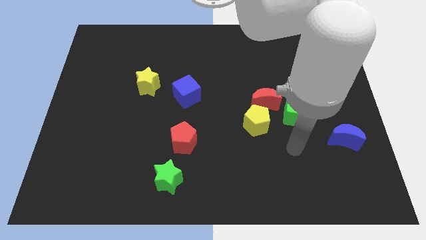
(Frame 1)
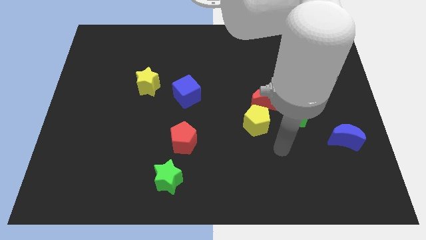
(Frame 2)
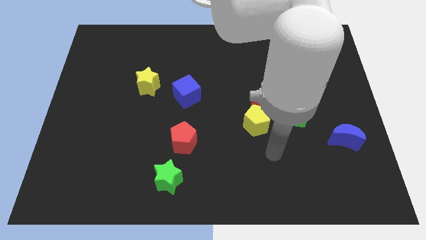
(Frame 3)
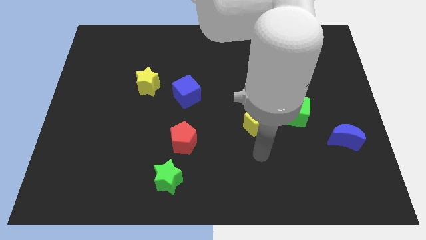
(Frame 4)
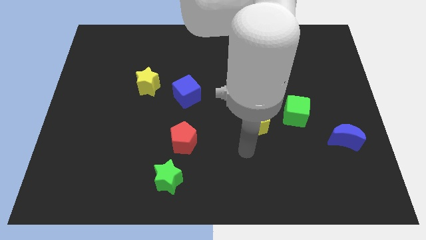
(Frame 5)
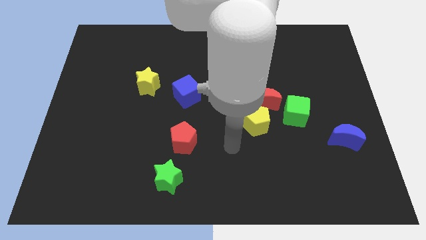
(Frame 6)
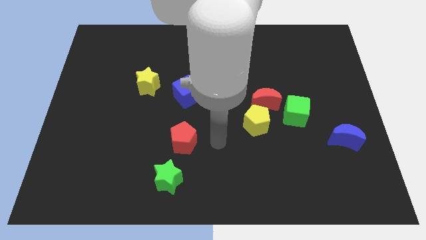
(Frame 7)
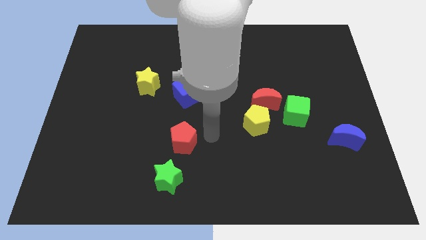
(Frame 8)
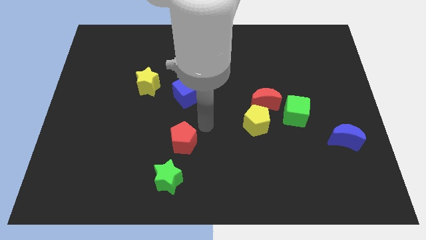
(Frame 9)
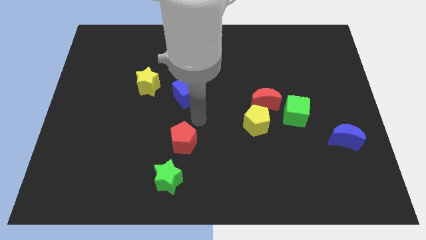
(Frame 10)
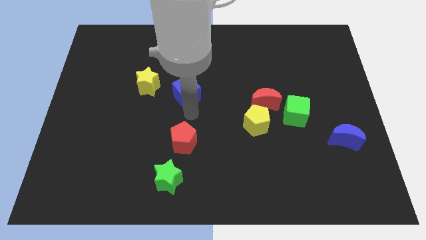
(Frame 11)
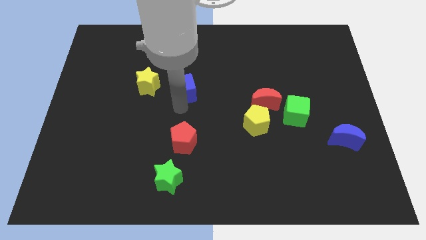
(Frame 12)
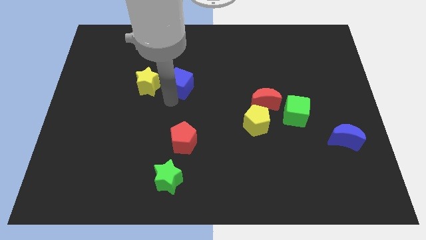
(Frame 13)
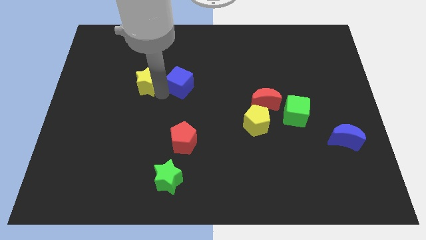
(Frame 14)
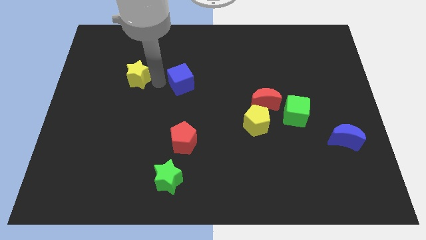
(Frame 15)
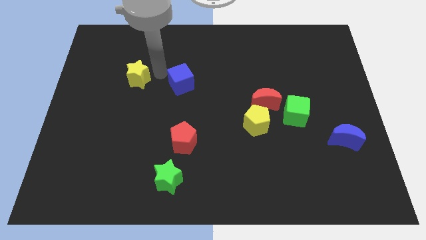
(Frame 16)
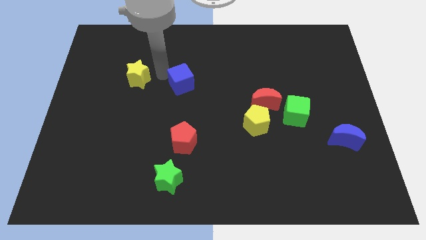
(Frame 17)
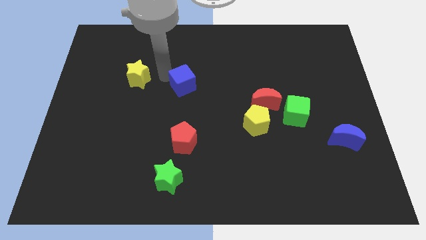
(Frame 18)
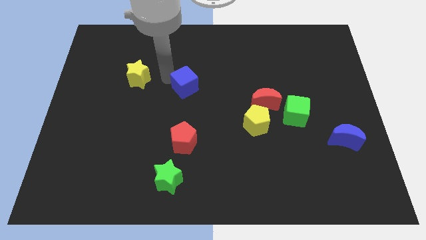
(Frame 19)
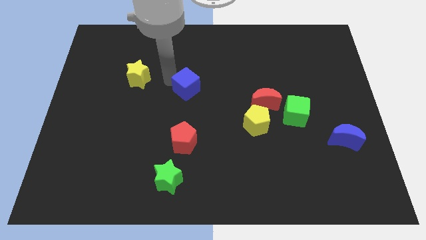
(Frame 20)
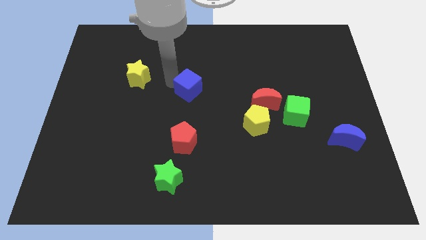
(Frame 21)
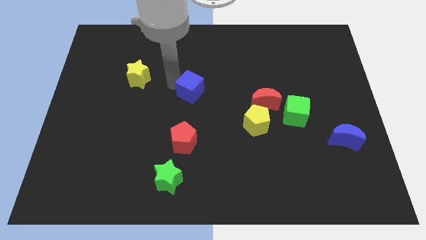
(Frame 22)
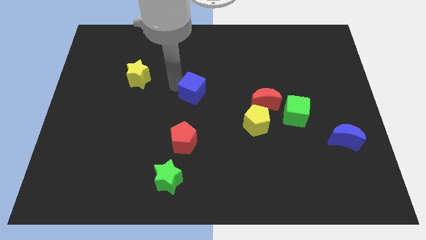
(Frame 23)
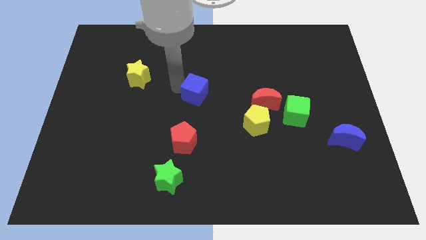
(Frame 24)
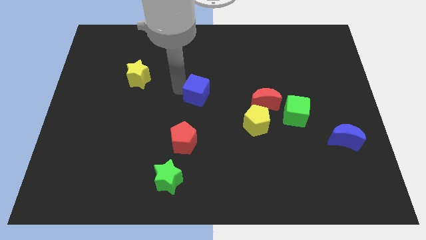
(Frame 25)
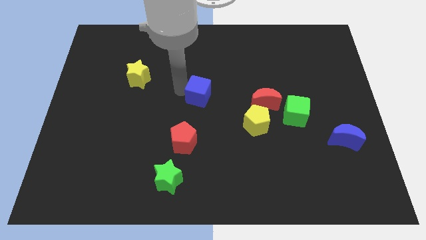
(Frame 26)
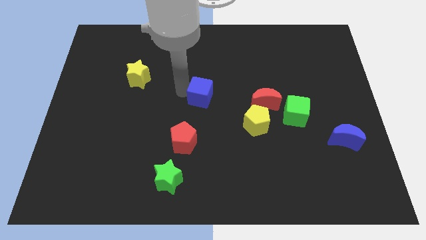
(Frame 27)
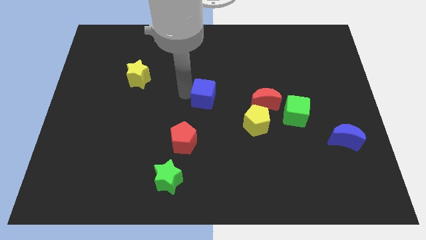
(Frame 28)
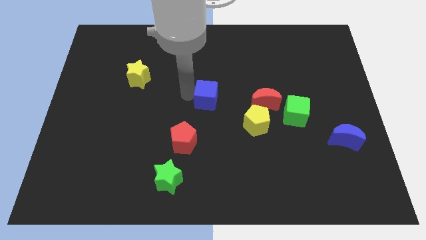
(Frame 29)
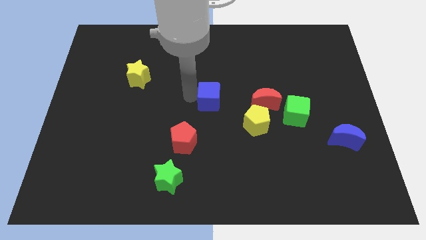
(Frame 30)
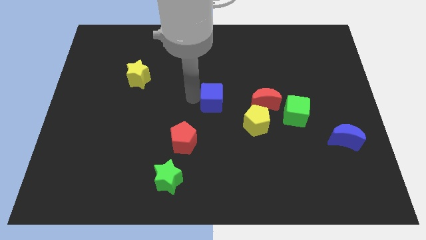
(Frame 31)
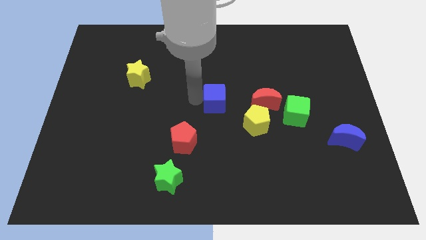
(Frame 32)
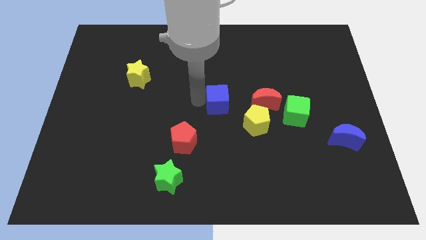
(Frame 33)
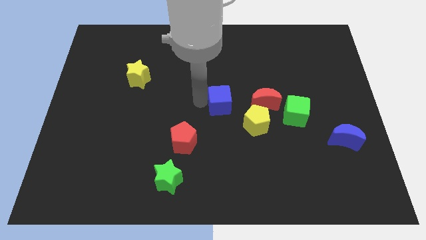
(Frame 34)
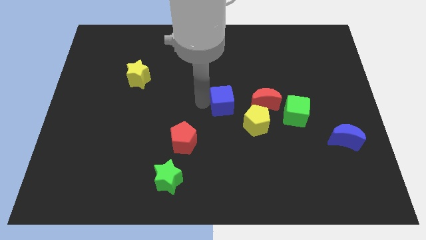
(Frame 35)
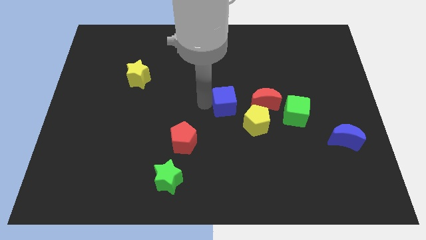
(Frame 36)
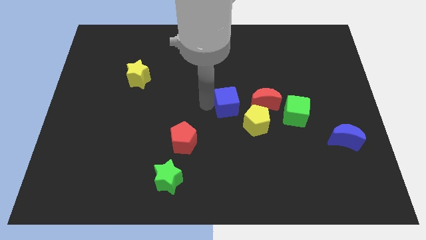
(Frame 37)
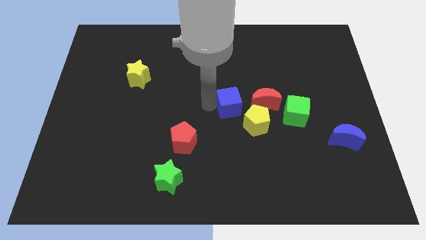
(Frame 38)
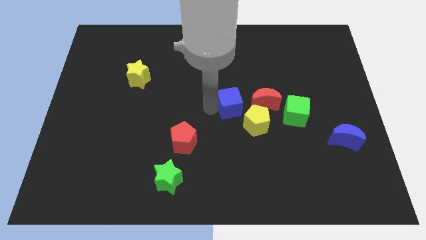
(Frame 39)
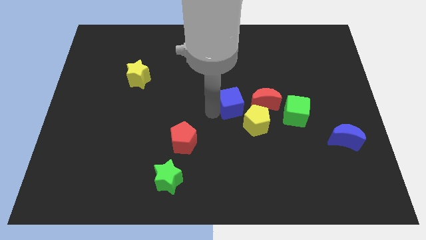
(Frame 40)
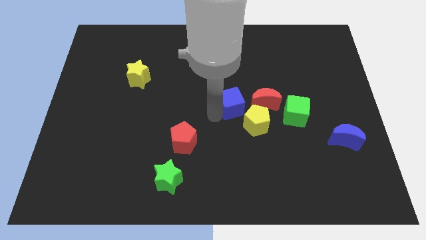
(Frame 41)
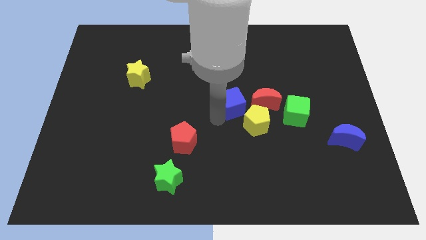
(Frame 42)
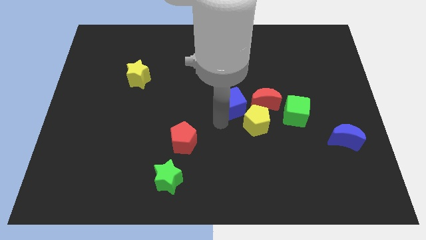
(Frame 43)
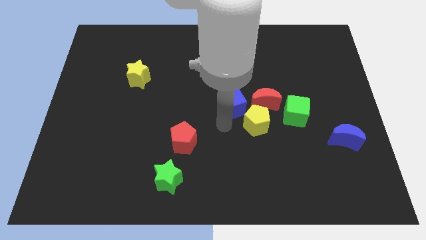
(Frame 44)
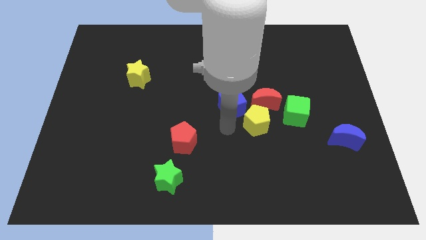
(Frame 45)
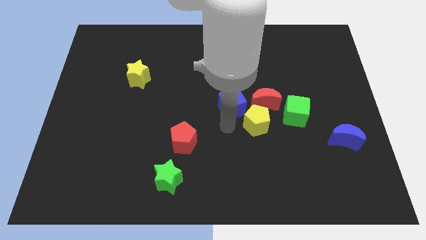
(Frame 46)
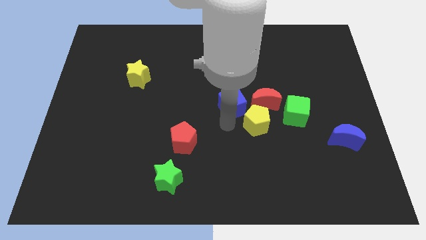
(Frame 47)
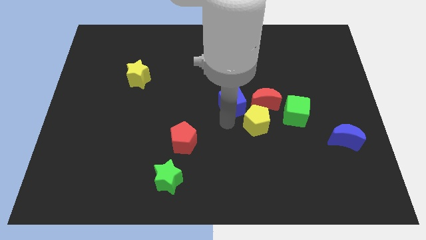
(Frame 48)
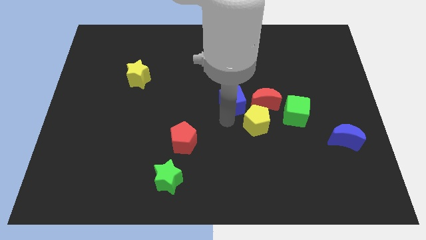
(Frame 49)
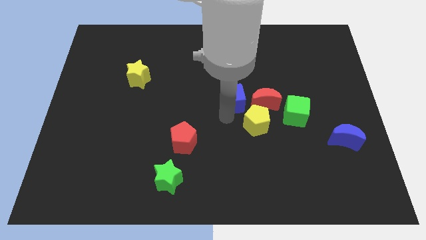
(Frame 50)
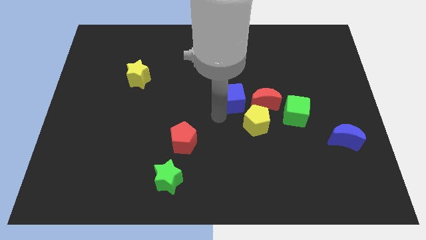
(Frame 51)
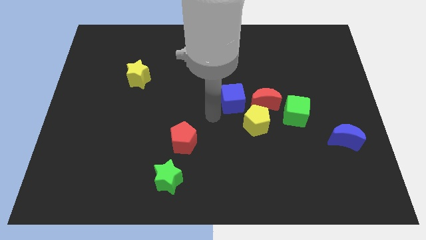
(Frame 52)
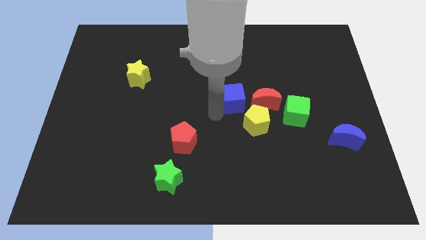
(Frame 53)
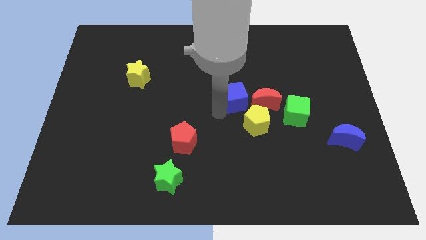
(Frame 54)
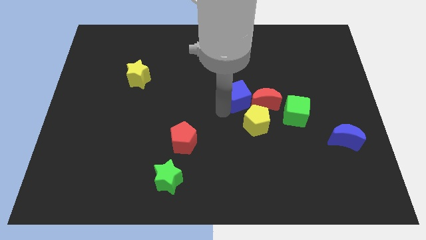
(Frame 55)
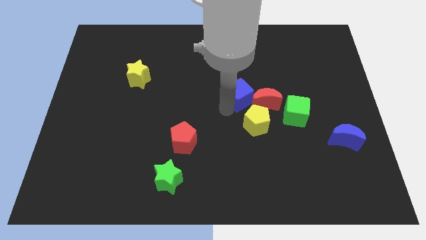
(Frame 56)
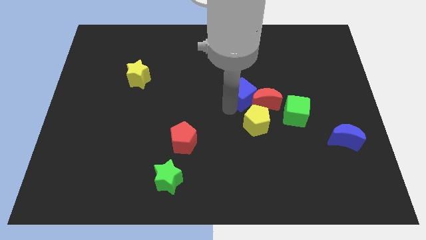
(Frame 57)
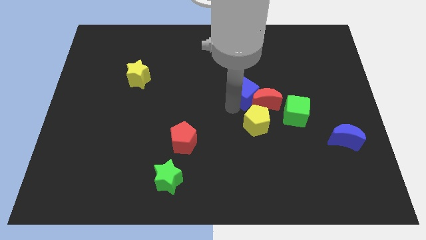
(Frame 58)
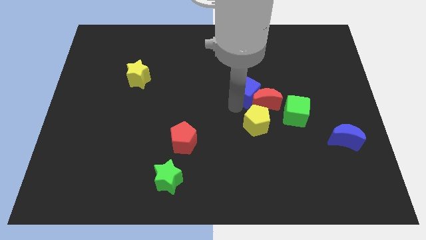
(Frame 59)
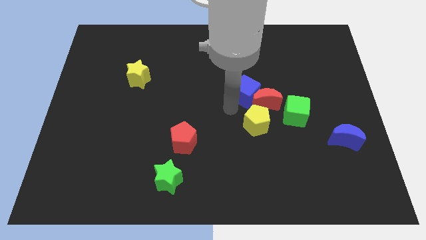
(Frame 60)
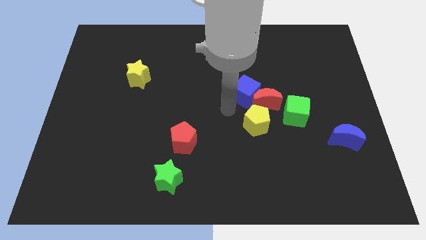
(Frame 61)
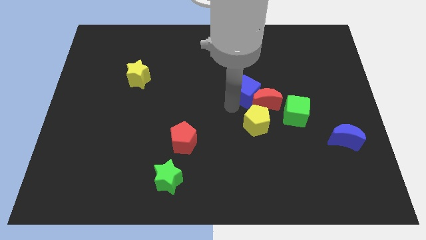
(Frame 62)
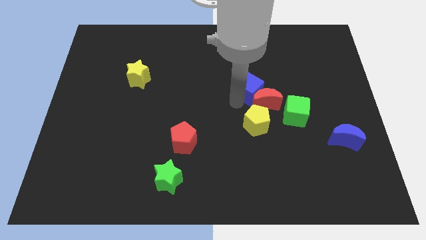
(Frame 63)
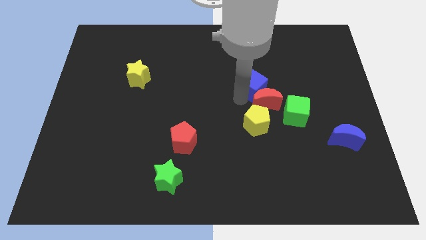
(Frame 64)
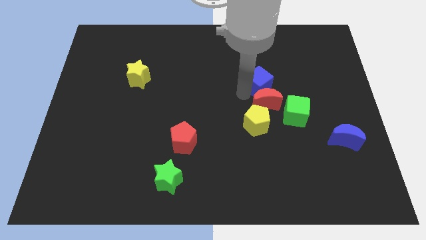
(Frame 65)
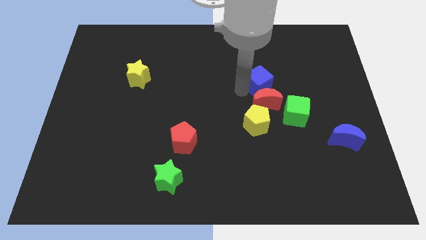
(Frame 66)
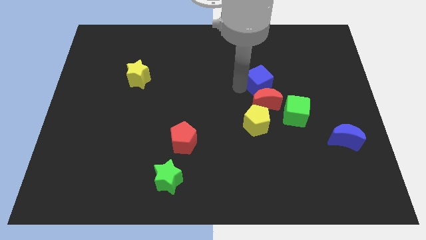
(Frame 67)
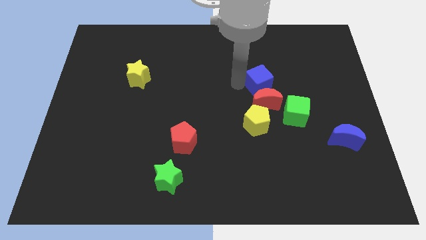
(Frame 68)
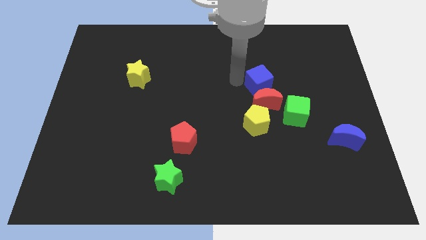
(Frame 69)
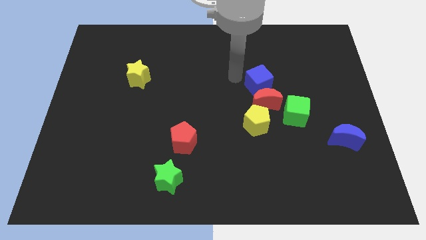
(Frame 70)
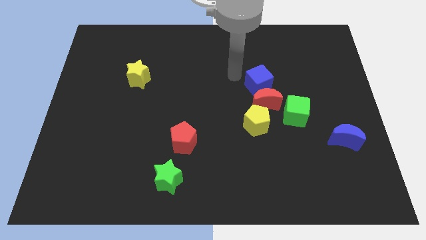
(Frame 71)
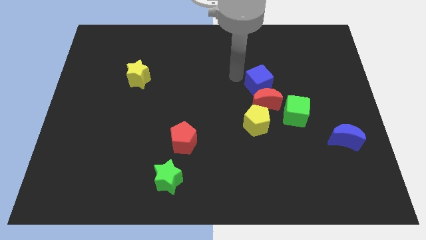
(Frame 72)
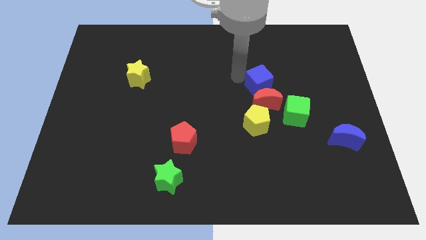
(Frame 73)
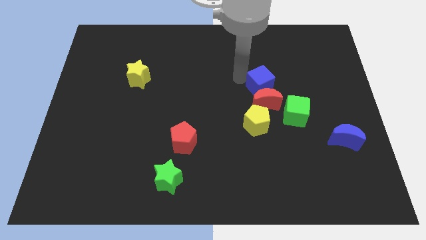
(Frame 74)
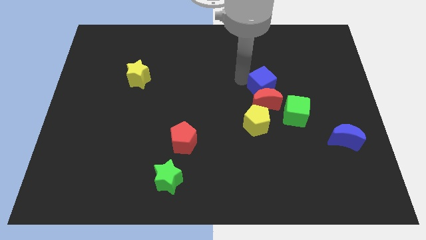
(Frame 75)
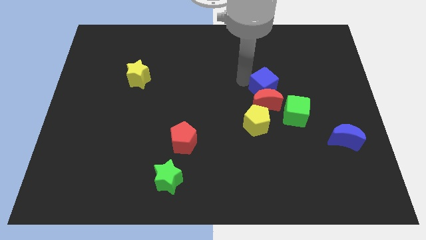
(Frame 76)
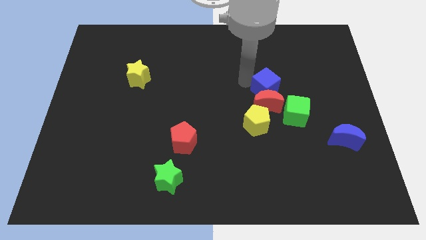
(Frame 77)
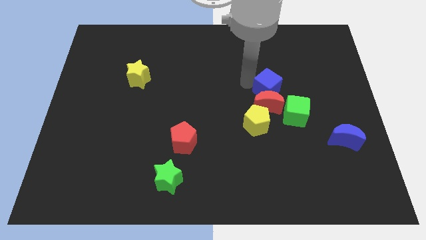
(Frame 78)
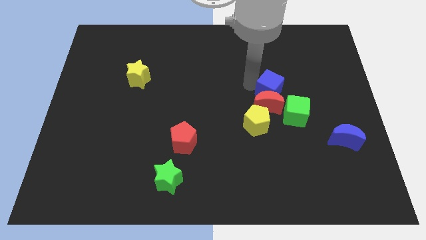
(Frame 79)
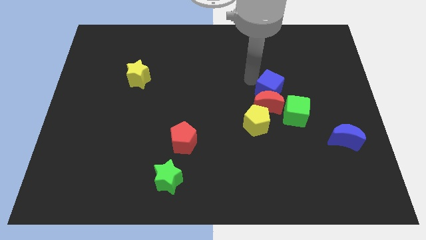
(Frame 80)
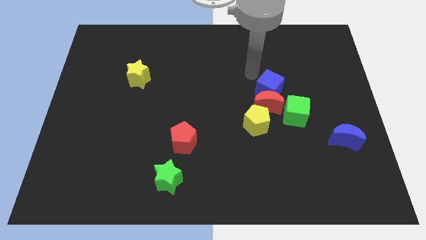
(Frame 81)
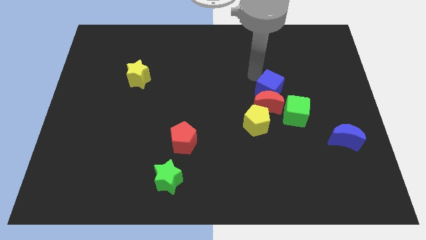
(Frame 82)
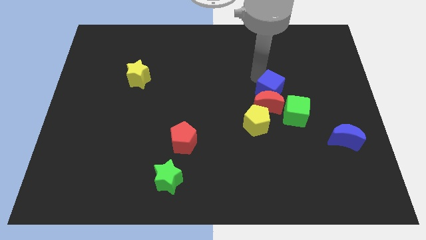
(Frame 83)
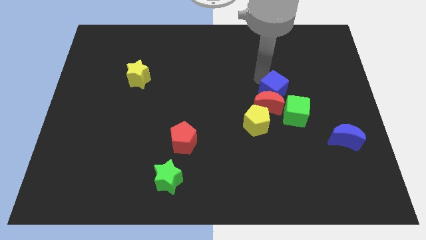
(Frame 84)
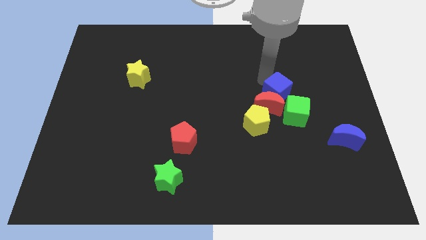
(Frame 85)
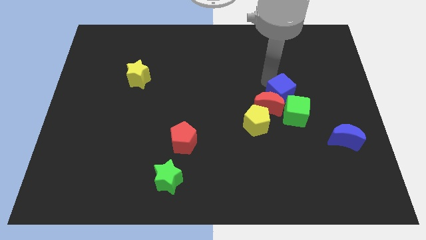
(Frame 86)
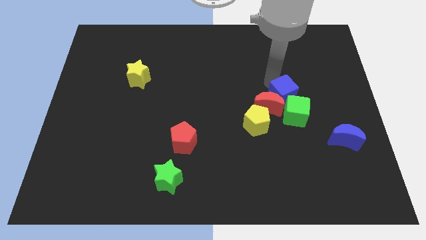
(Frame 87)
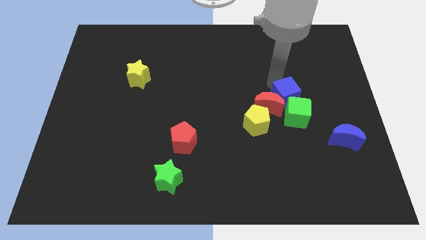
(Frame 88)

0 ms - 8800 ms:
move the blue cube to the green cube
